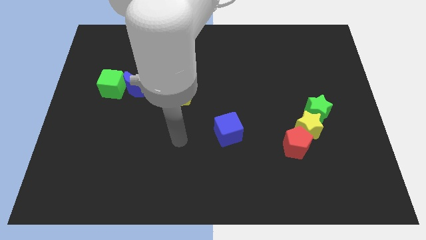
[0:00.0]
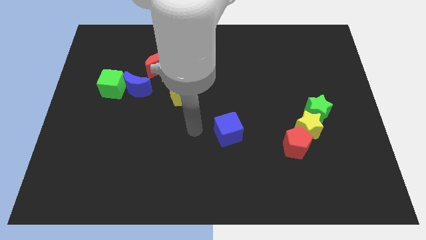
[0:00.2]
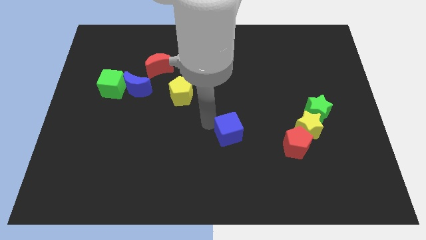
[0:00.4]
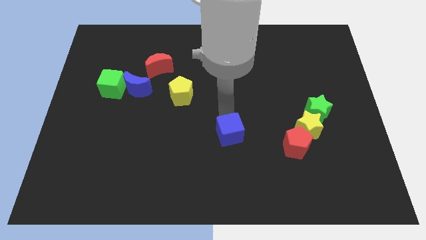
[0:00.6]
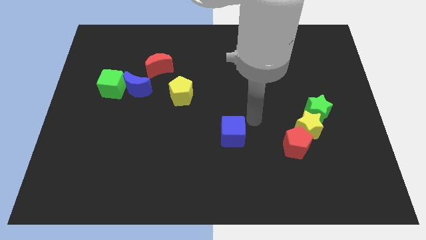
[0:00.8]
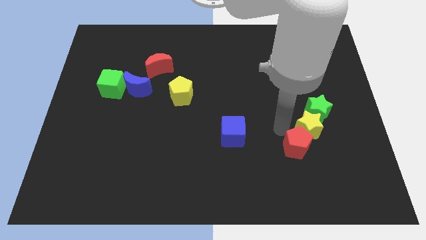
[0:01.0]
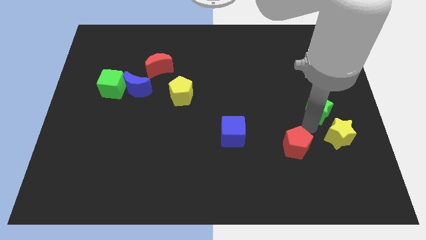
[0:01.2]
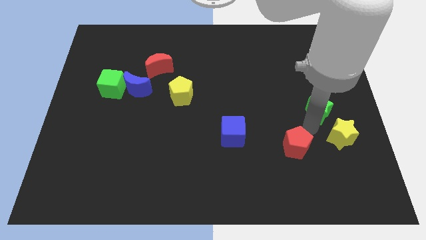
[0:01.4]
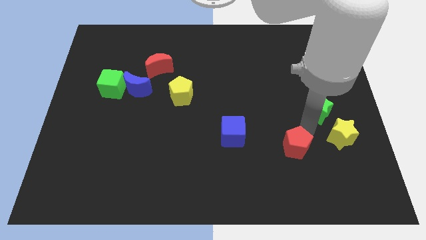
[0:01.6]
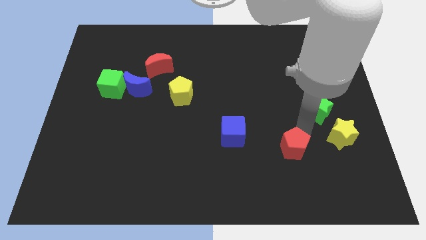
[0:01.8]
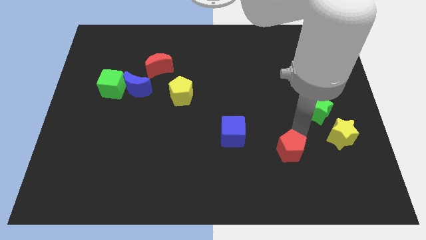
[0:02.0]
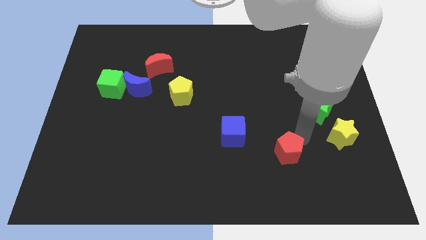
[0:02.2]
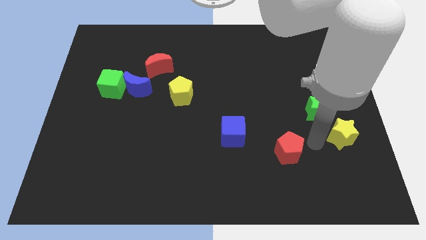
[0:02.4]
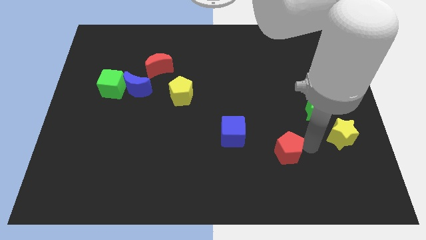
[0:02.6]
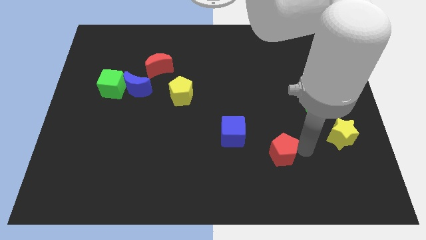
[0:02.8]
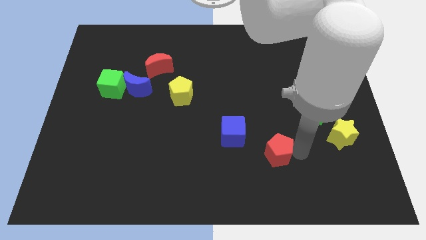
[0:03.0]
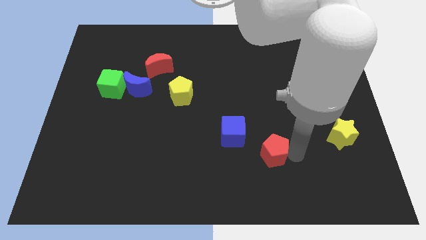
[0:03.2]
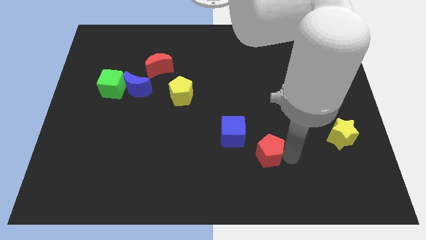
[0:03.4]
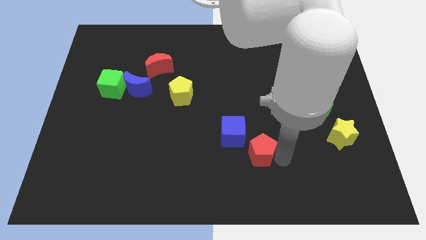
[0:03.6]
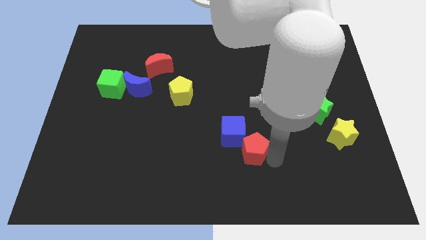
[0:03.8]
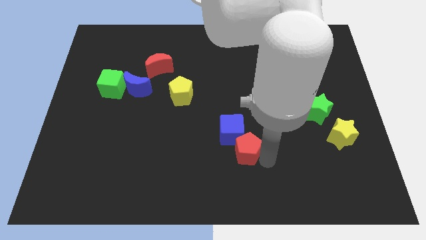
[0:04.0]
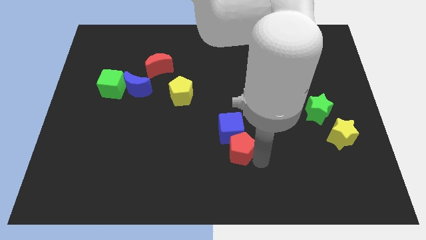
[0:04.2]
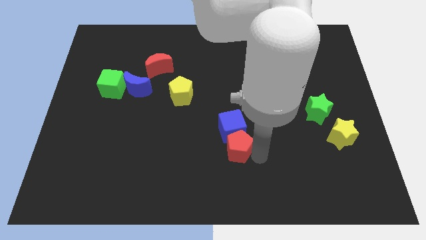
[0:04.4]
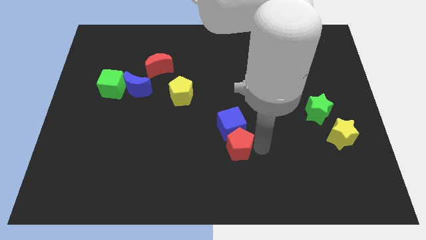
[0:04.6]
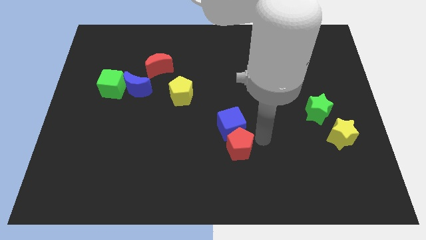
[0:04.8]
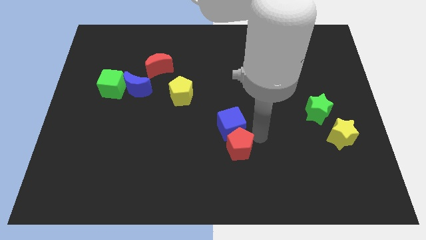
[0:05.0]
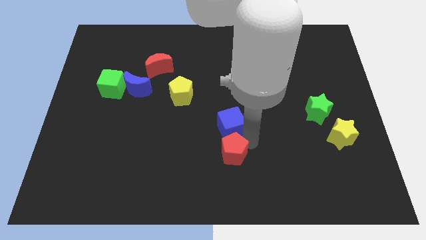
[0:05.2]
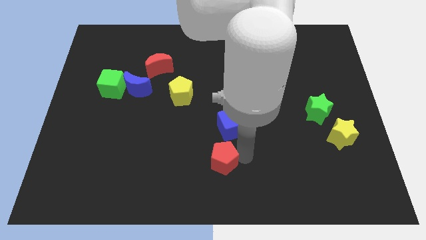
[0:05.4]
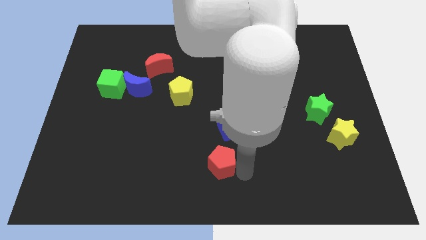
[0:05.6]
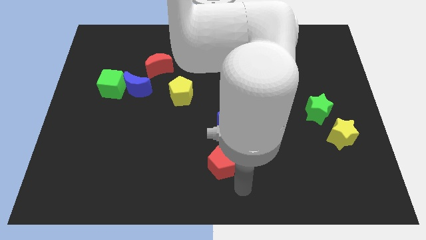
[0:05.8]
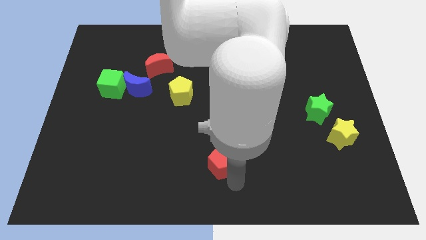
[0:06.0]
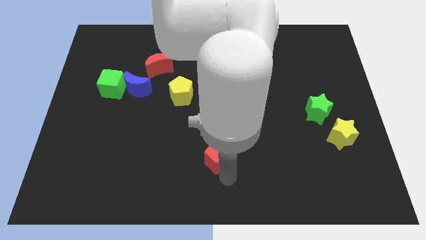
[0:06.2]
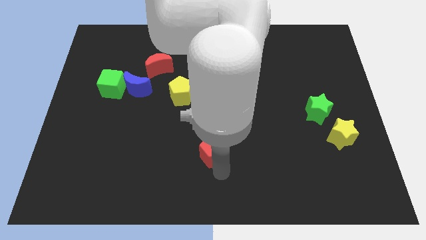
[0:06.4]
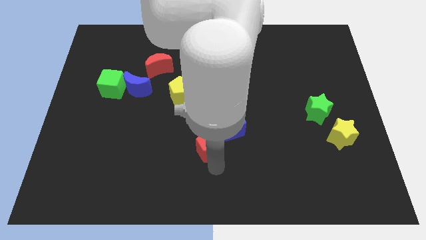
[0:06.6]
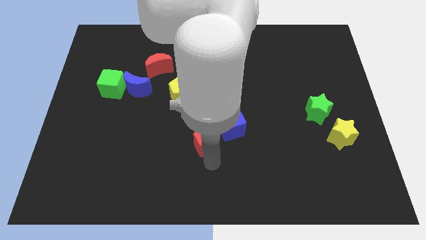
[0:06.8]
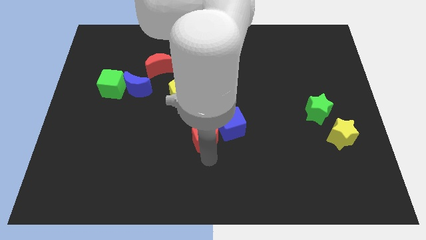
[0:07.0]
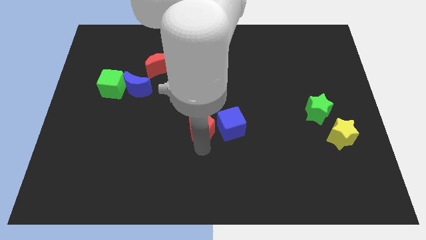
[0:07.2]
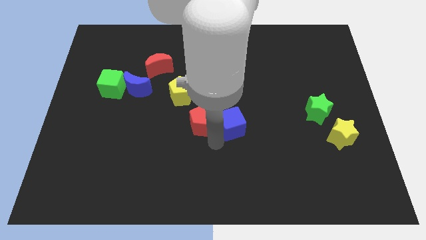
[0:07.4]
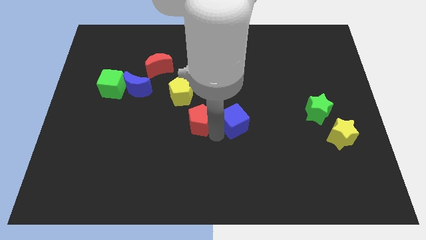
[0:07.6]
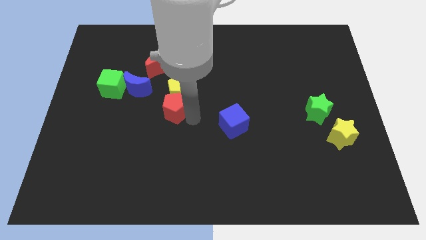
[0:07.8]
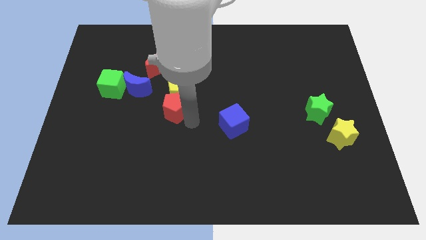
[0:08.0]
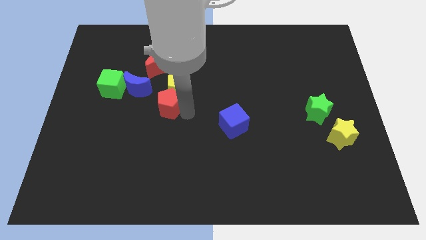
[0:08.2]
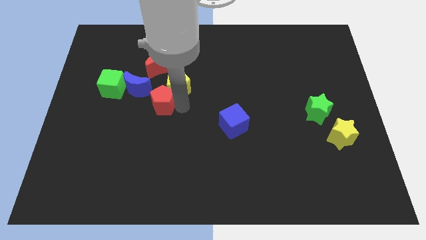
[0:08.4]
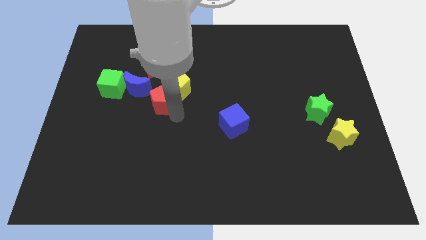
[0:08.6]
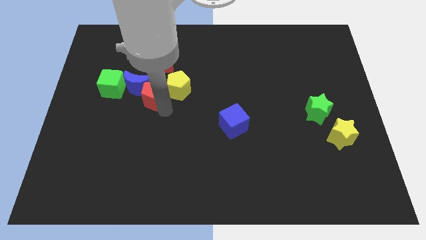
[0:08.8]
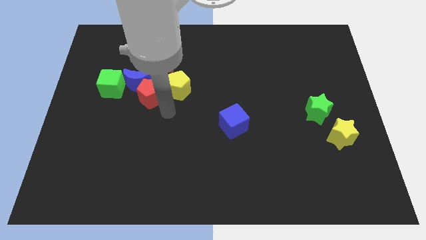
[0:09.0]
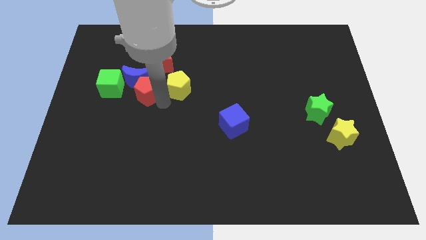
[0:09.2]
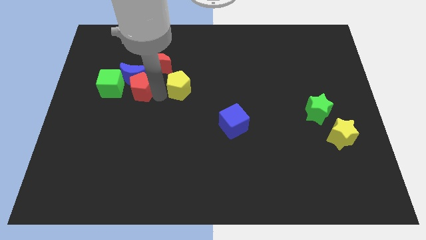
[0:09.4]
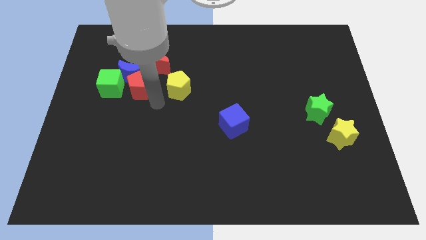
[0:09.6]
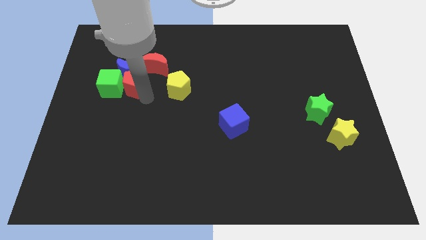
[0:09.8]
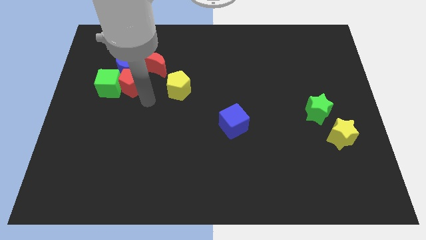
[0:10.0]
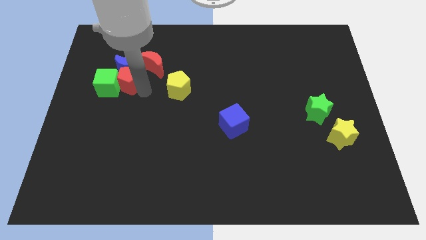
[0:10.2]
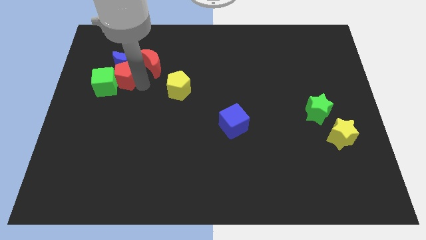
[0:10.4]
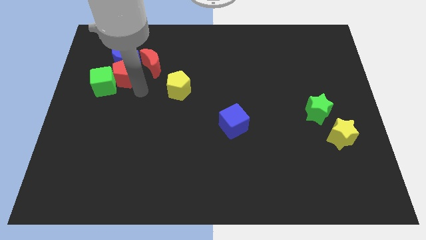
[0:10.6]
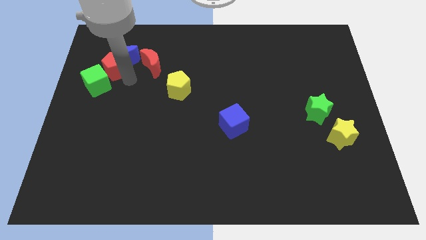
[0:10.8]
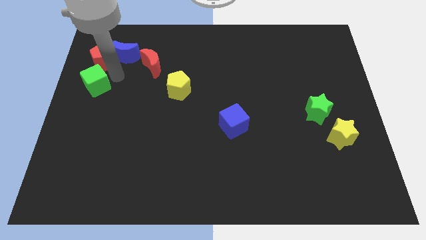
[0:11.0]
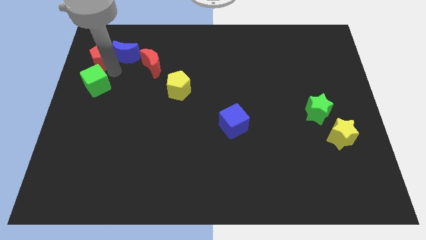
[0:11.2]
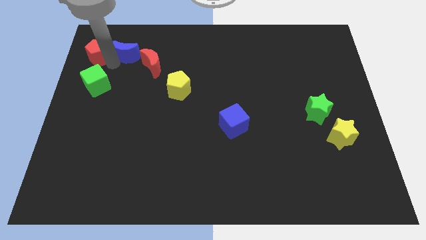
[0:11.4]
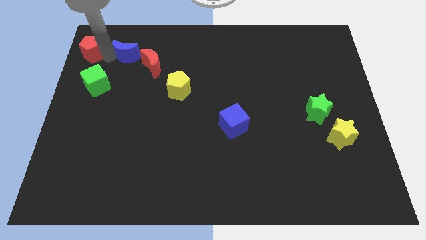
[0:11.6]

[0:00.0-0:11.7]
move the red pentagon to the upper left corner
